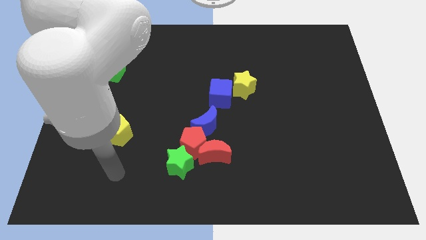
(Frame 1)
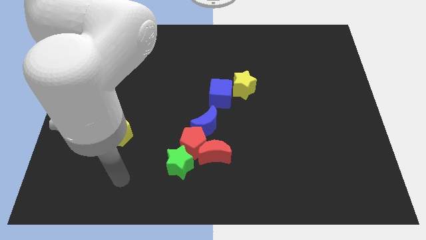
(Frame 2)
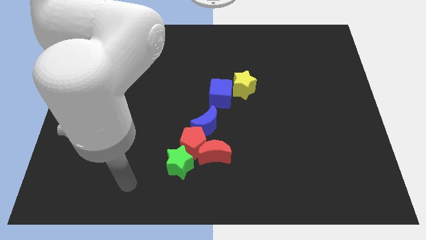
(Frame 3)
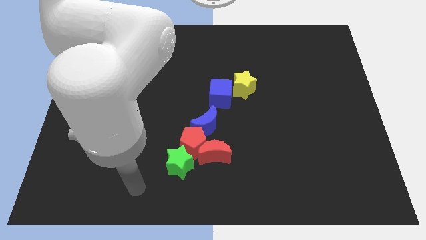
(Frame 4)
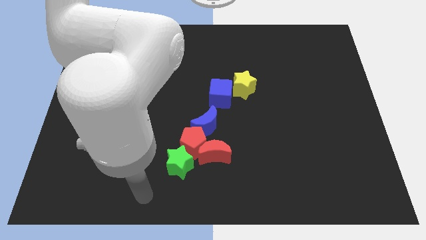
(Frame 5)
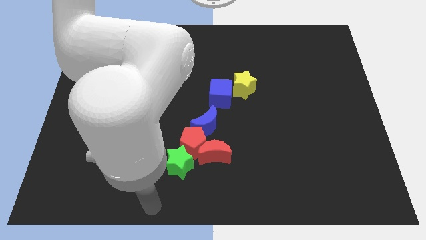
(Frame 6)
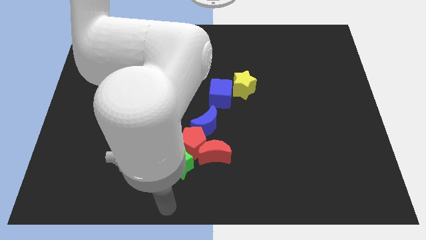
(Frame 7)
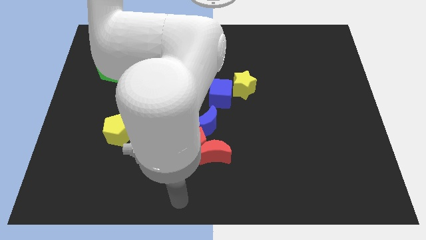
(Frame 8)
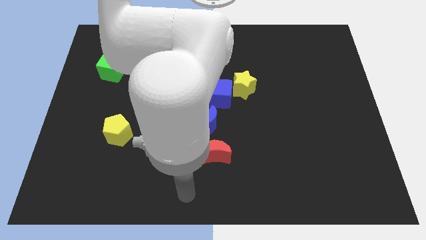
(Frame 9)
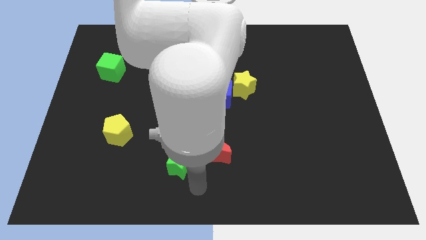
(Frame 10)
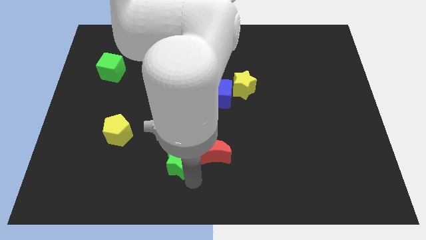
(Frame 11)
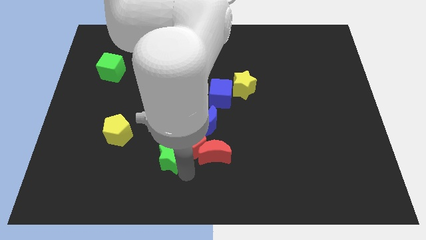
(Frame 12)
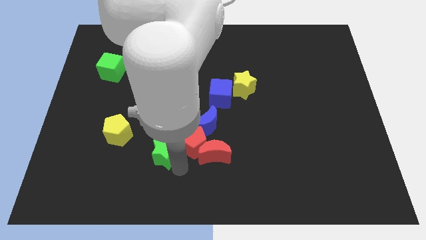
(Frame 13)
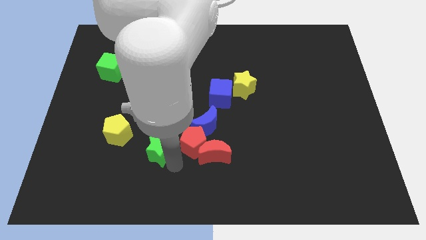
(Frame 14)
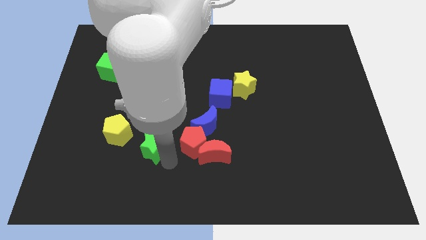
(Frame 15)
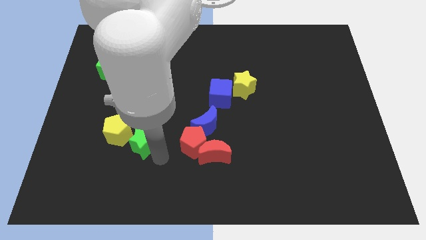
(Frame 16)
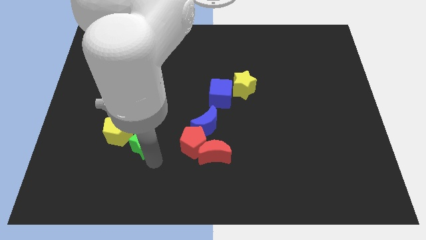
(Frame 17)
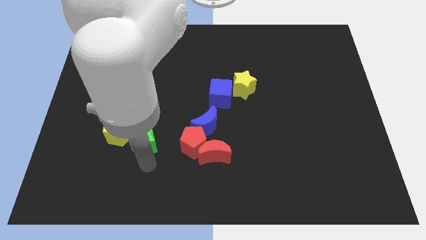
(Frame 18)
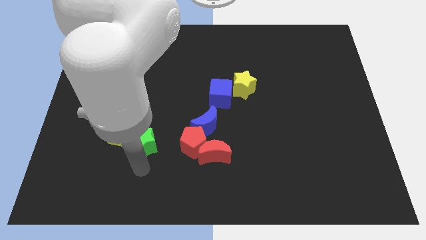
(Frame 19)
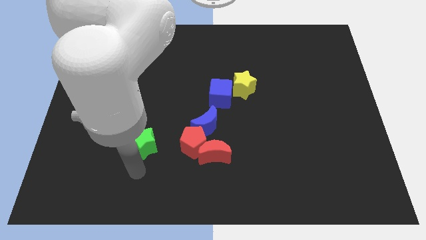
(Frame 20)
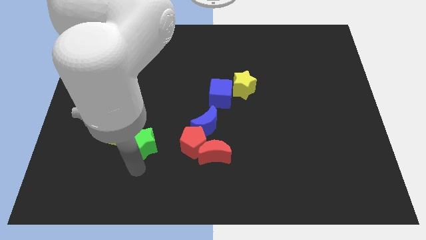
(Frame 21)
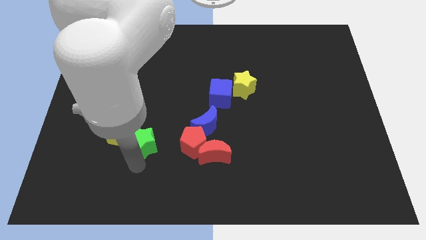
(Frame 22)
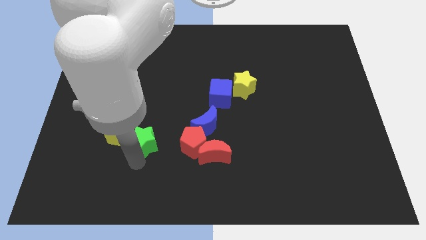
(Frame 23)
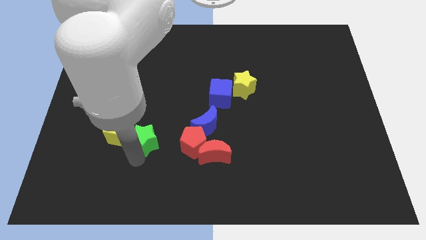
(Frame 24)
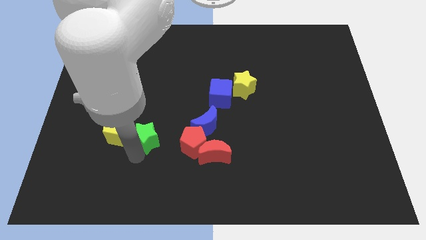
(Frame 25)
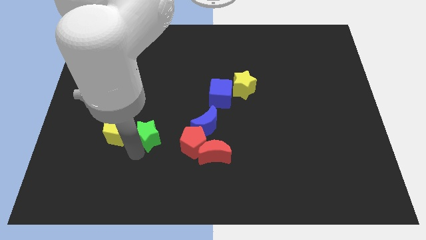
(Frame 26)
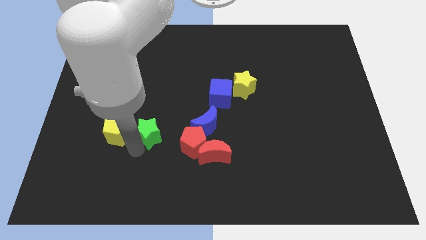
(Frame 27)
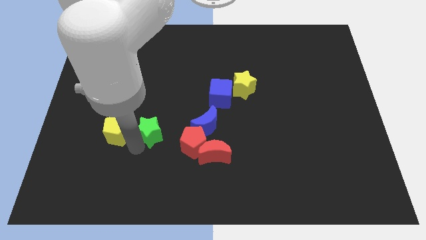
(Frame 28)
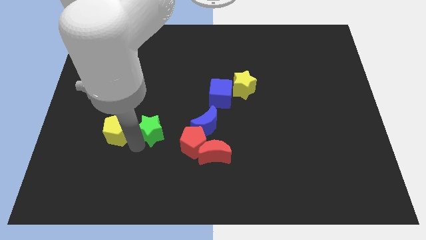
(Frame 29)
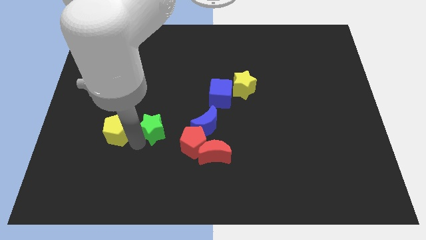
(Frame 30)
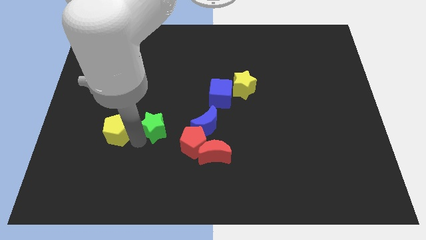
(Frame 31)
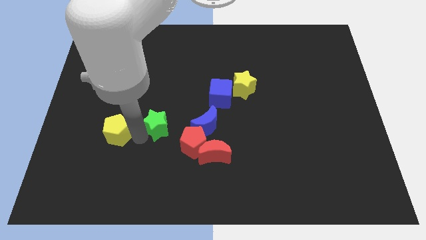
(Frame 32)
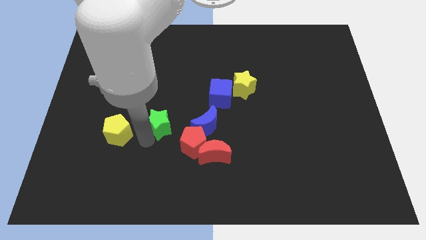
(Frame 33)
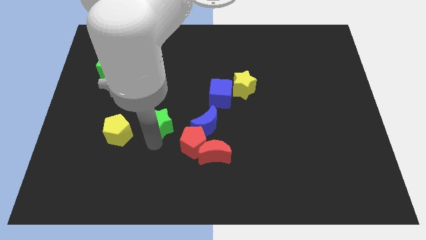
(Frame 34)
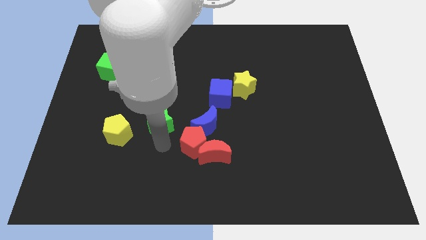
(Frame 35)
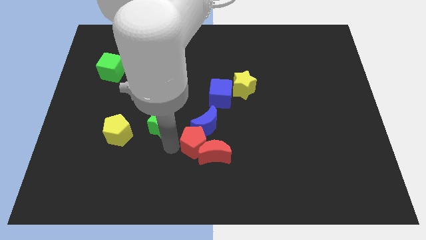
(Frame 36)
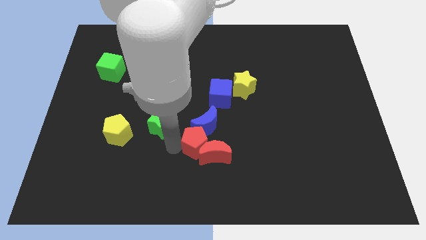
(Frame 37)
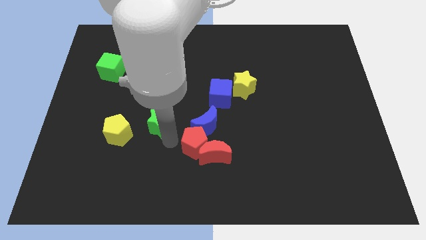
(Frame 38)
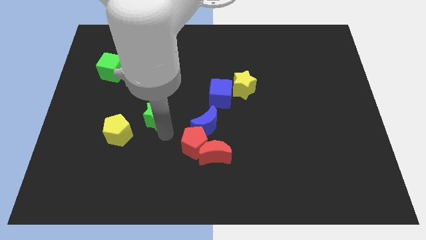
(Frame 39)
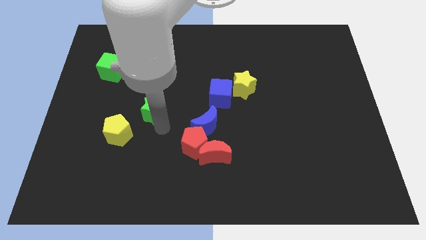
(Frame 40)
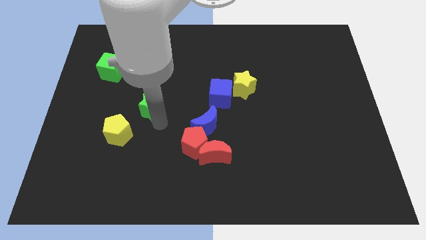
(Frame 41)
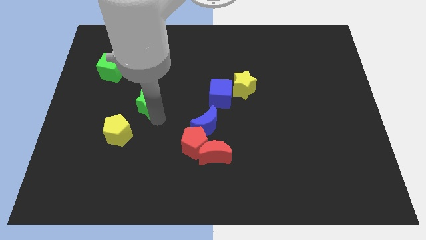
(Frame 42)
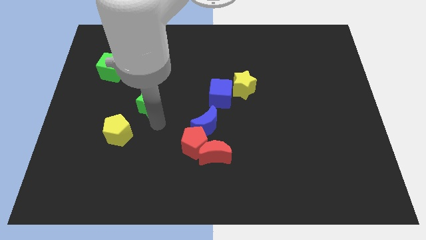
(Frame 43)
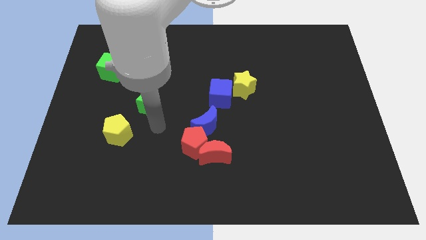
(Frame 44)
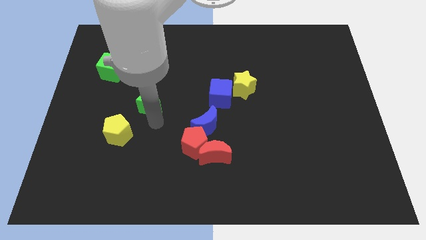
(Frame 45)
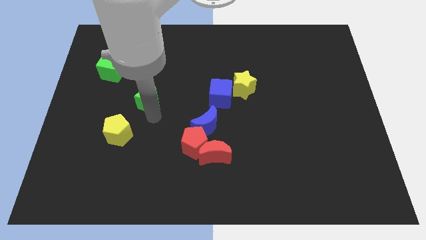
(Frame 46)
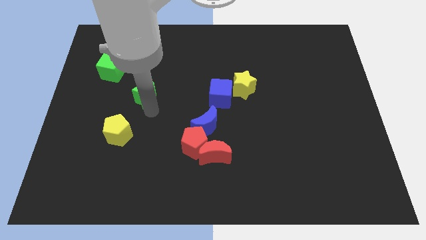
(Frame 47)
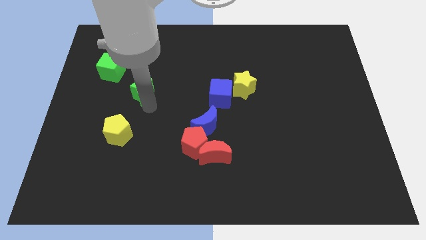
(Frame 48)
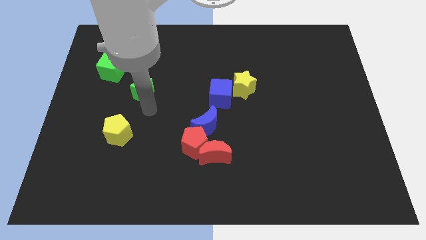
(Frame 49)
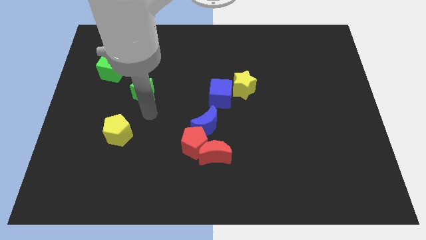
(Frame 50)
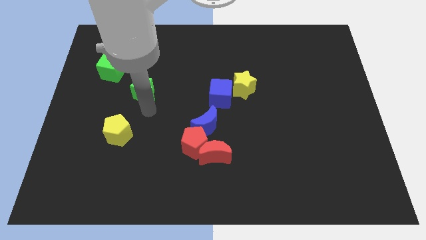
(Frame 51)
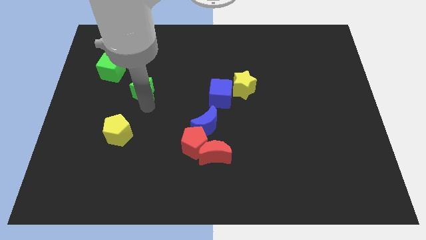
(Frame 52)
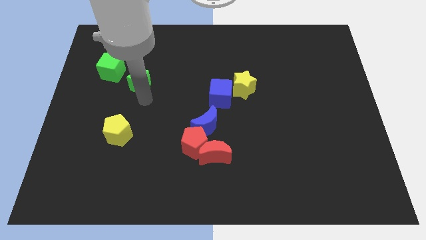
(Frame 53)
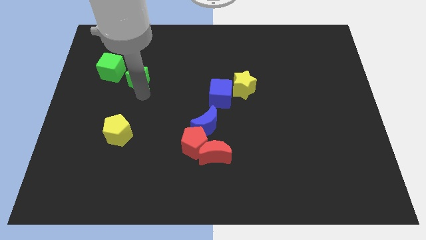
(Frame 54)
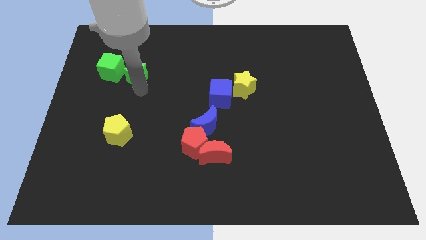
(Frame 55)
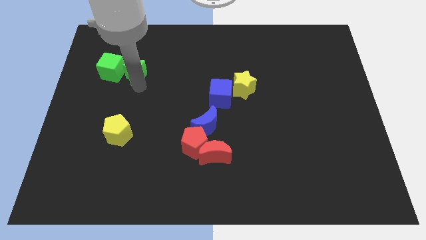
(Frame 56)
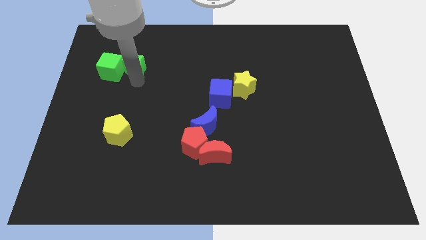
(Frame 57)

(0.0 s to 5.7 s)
move the green star to the top right of the green cube

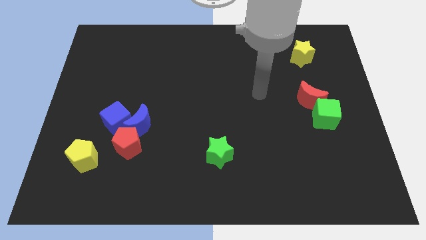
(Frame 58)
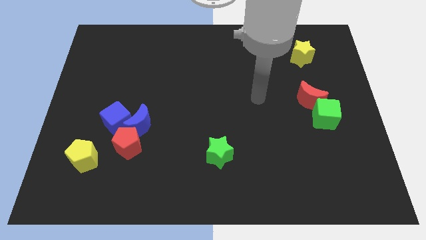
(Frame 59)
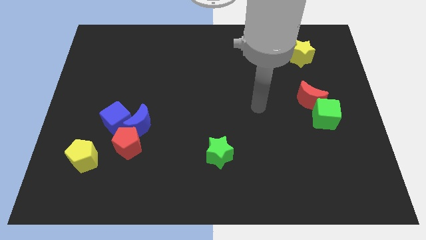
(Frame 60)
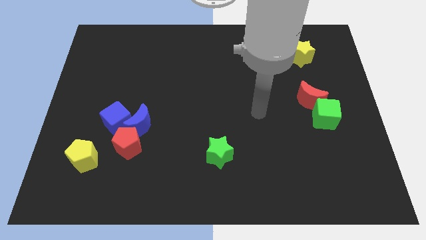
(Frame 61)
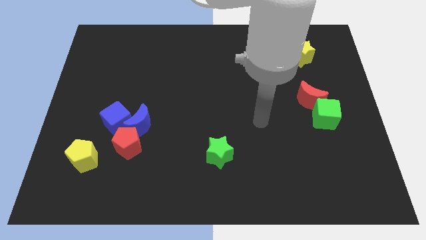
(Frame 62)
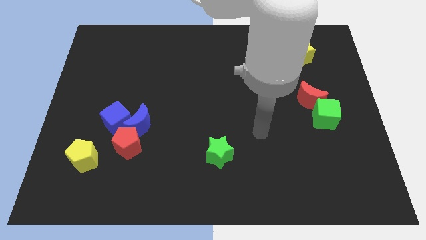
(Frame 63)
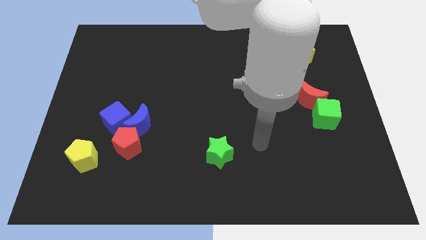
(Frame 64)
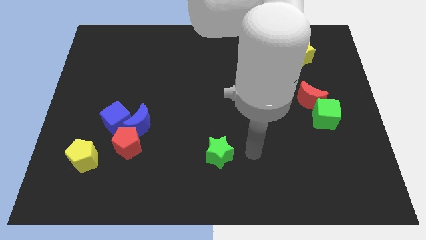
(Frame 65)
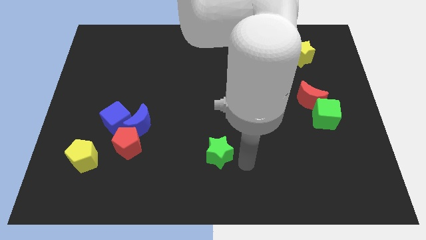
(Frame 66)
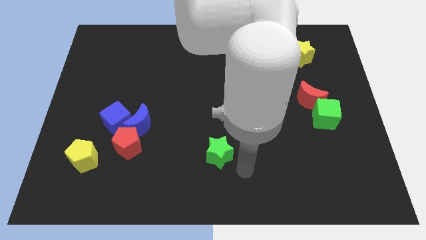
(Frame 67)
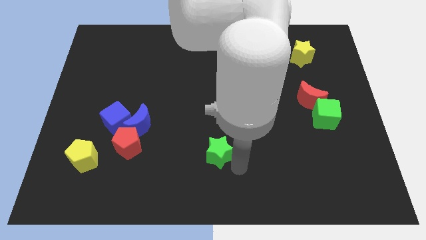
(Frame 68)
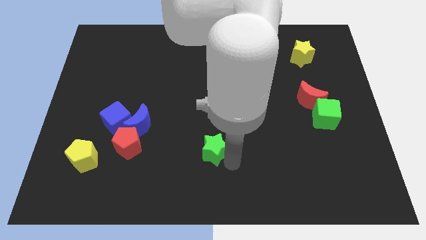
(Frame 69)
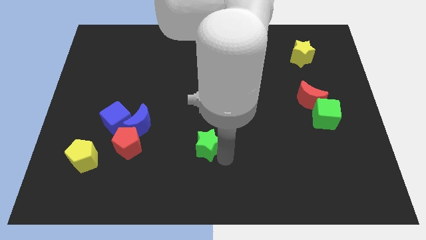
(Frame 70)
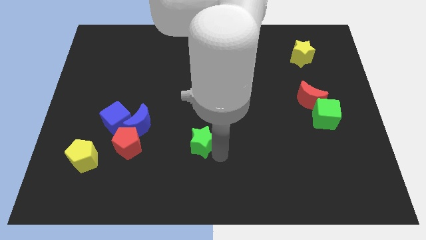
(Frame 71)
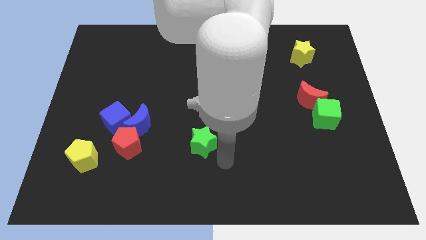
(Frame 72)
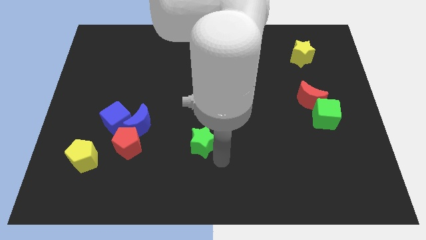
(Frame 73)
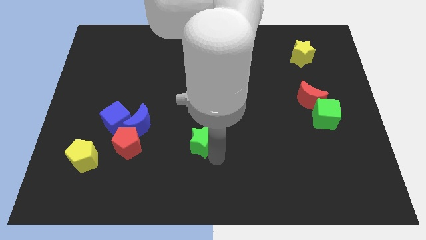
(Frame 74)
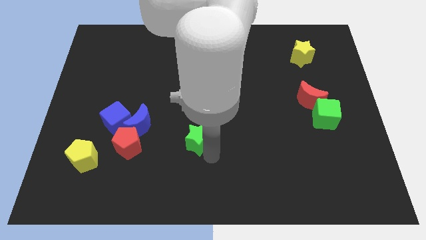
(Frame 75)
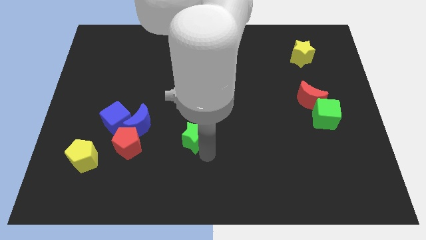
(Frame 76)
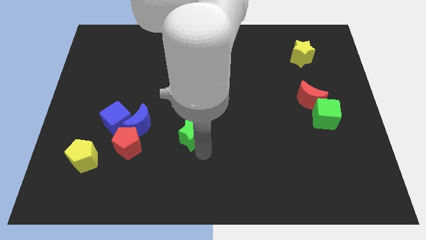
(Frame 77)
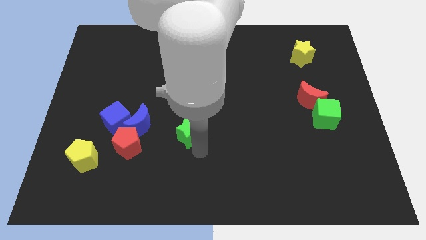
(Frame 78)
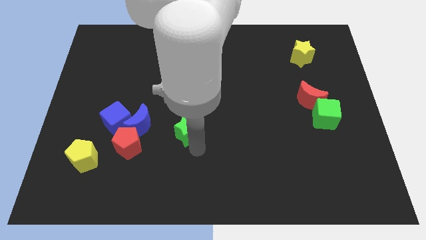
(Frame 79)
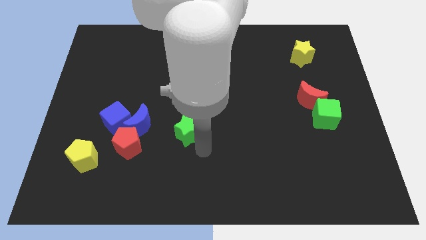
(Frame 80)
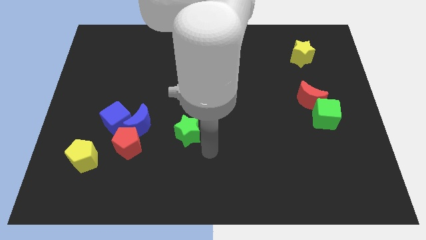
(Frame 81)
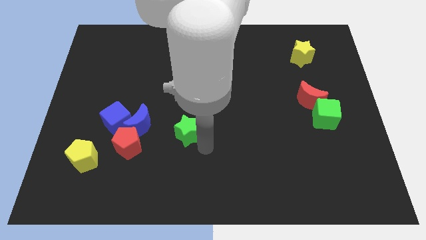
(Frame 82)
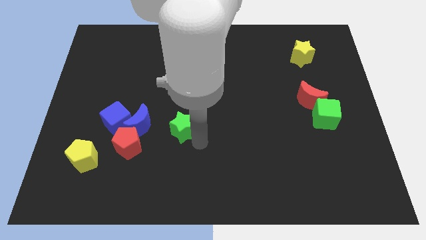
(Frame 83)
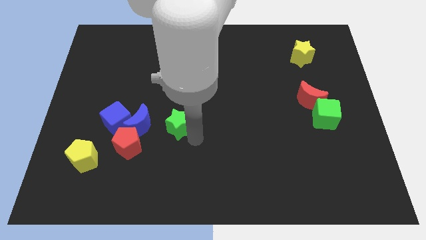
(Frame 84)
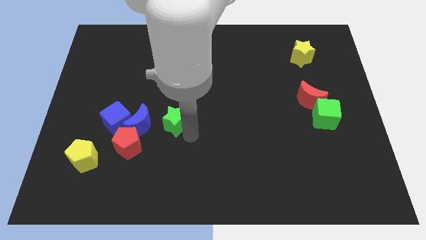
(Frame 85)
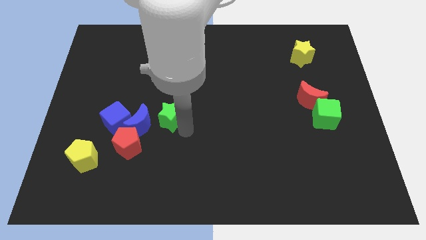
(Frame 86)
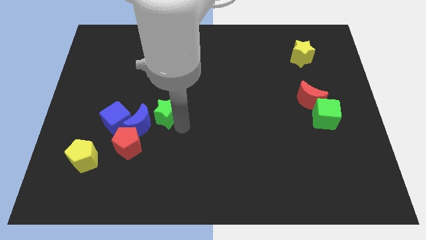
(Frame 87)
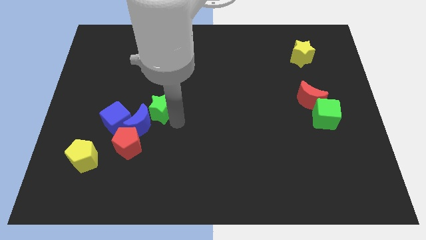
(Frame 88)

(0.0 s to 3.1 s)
slide the green star diagonally up and to the right of the blue cube
